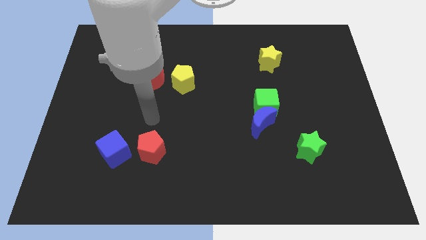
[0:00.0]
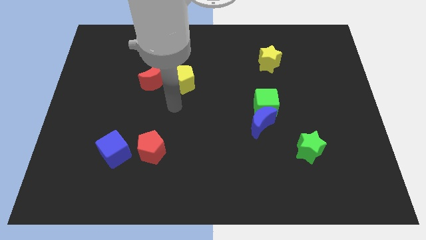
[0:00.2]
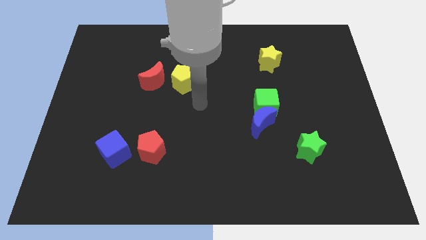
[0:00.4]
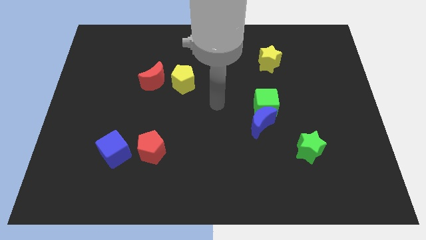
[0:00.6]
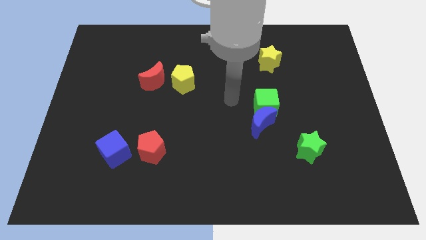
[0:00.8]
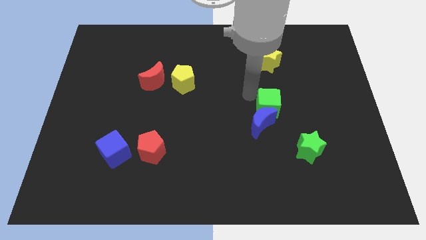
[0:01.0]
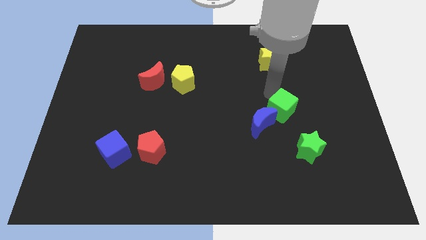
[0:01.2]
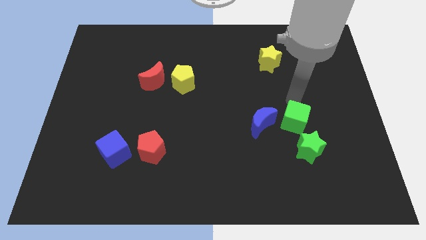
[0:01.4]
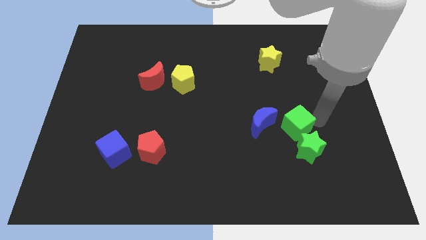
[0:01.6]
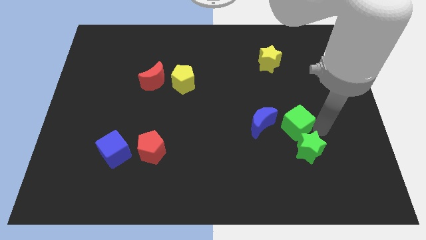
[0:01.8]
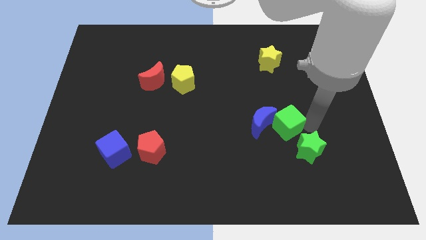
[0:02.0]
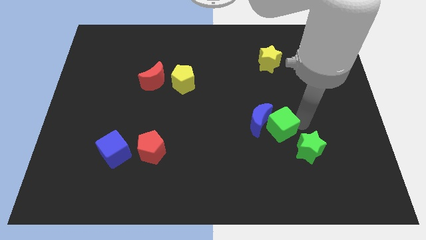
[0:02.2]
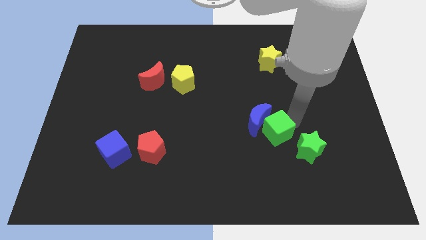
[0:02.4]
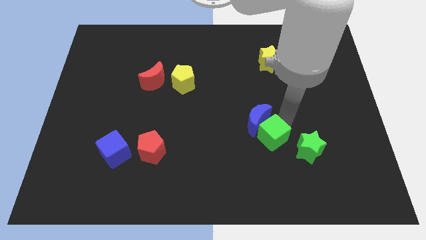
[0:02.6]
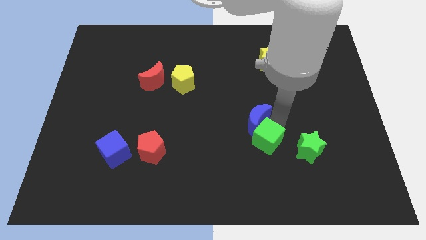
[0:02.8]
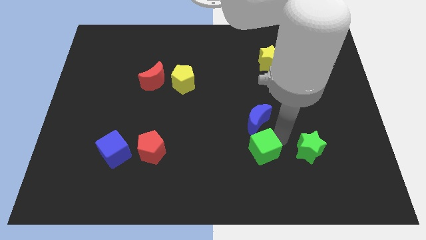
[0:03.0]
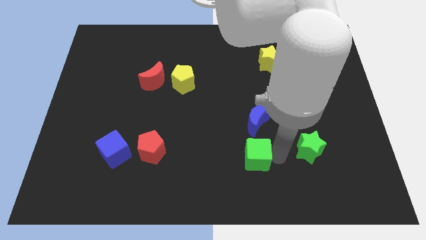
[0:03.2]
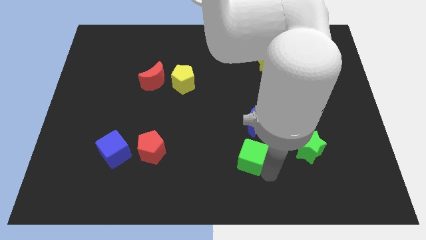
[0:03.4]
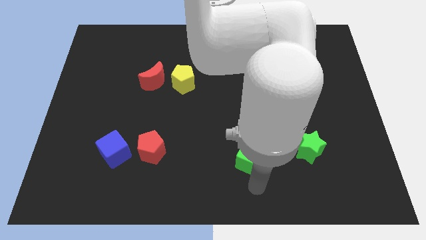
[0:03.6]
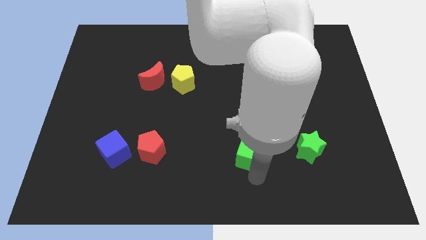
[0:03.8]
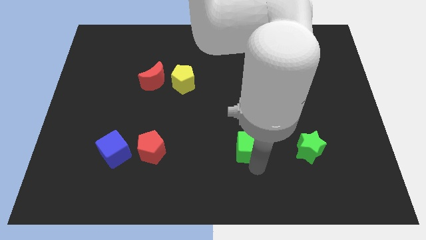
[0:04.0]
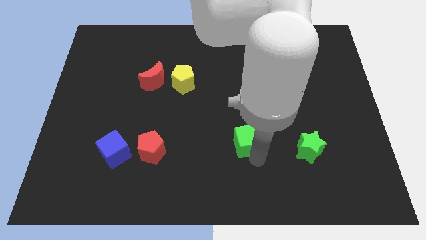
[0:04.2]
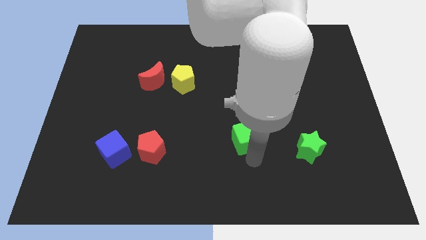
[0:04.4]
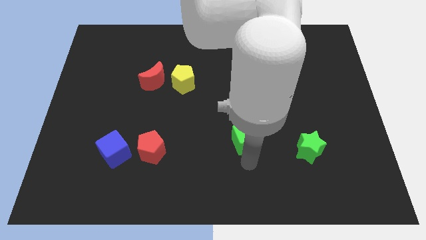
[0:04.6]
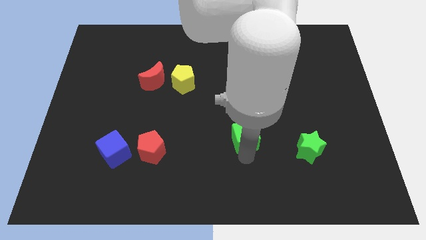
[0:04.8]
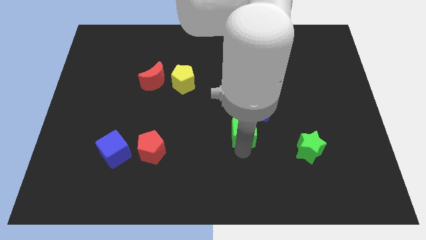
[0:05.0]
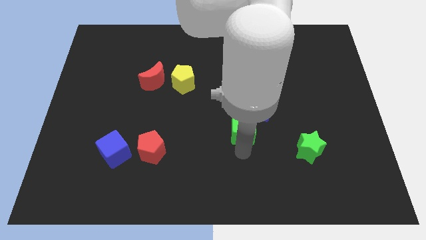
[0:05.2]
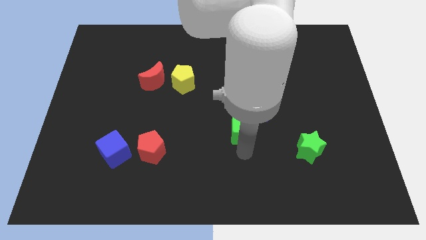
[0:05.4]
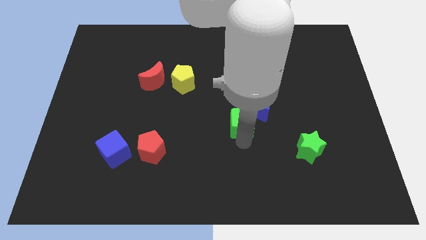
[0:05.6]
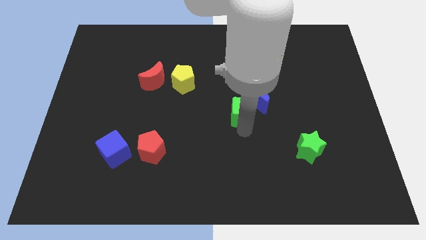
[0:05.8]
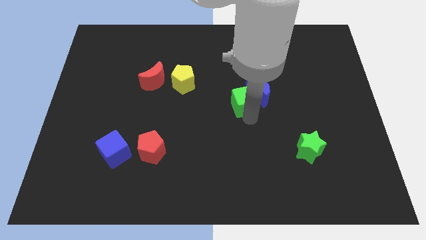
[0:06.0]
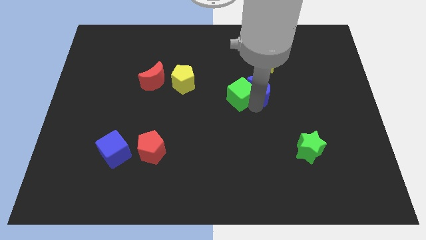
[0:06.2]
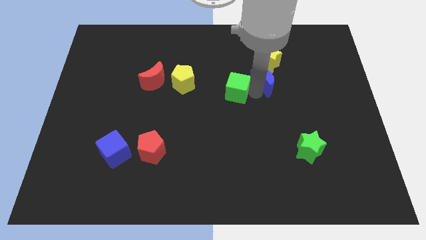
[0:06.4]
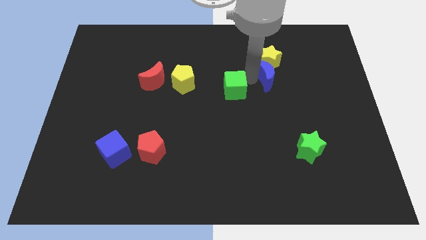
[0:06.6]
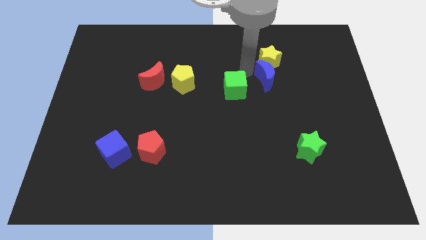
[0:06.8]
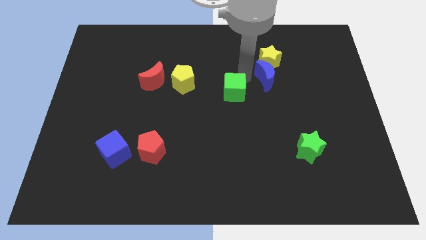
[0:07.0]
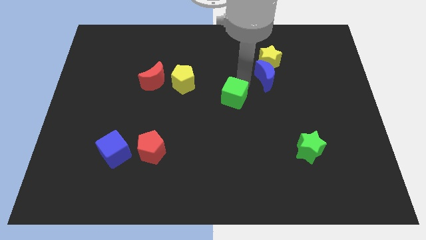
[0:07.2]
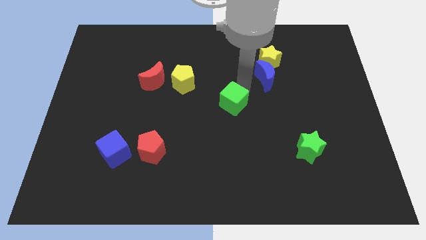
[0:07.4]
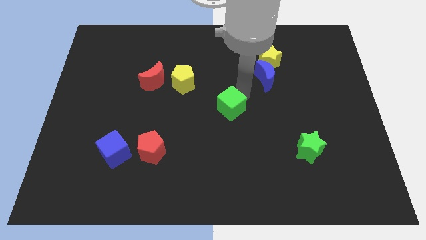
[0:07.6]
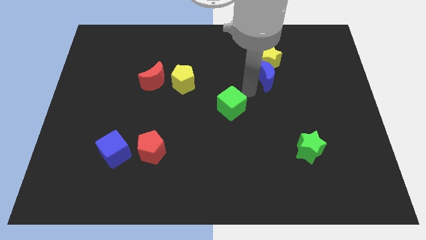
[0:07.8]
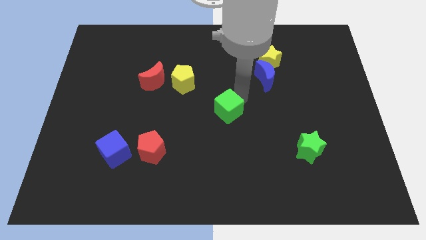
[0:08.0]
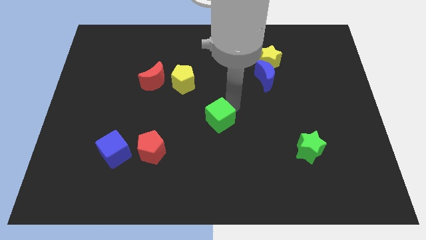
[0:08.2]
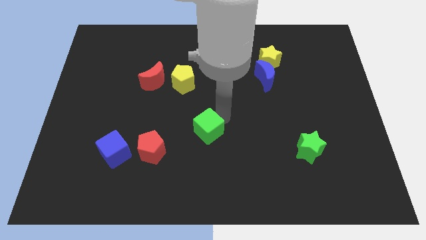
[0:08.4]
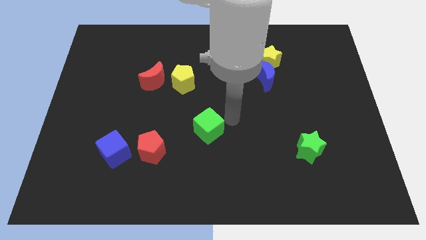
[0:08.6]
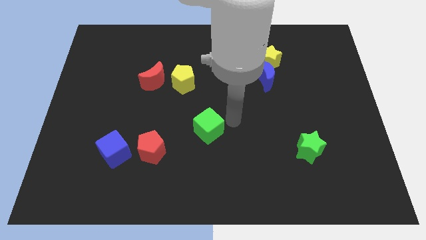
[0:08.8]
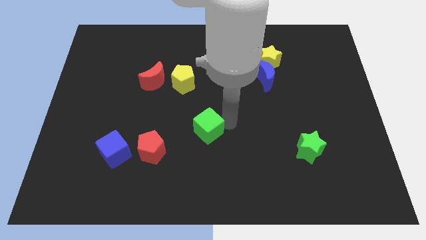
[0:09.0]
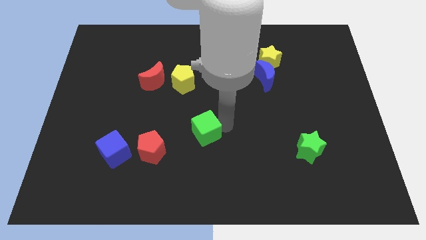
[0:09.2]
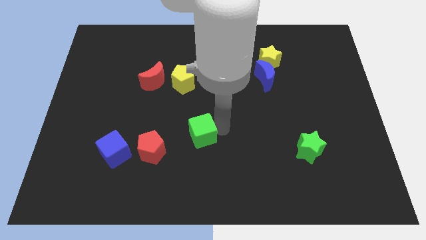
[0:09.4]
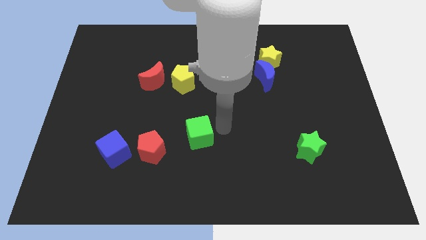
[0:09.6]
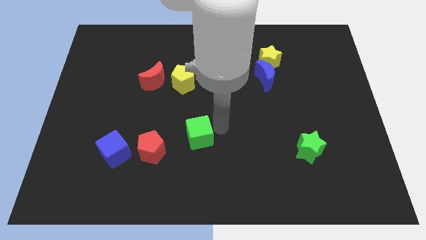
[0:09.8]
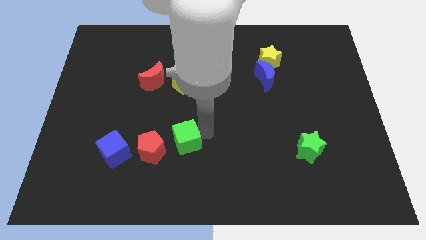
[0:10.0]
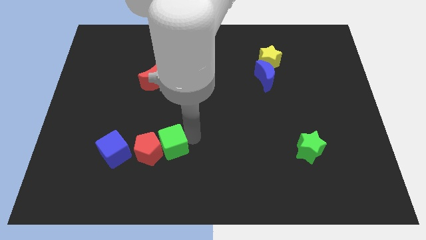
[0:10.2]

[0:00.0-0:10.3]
put the green cube next to the red pentagon

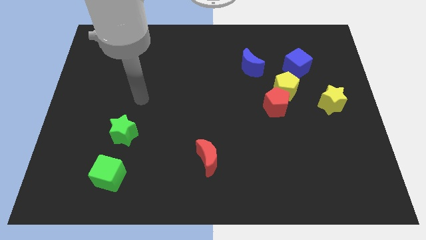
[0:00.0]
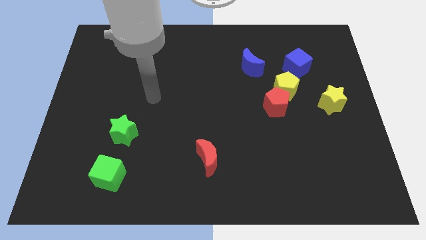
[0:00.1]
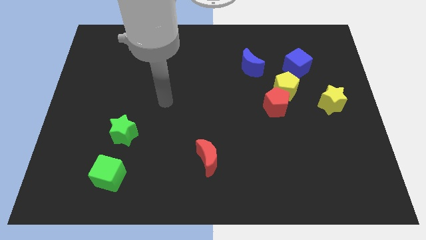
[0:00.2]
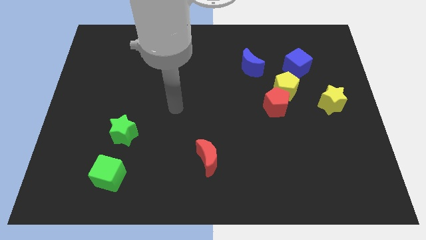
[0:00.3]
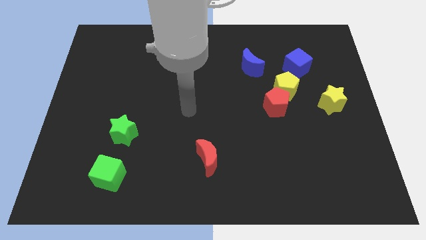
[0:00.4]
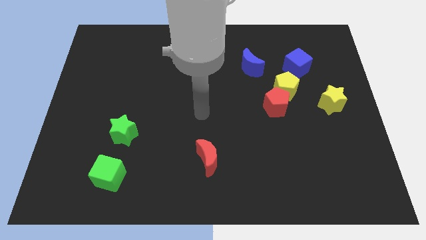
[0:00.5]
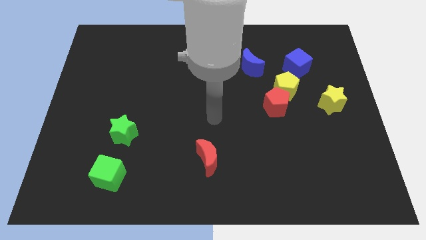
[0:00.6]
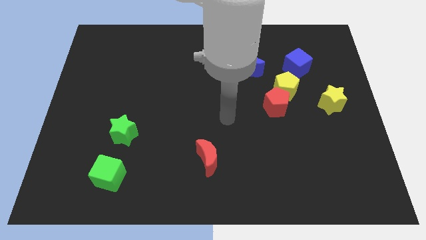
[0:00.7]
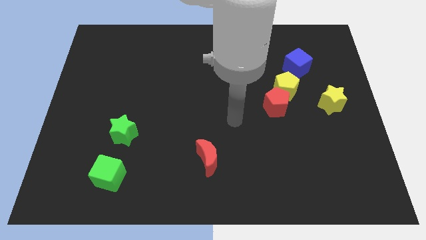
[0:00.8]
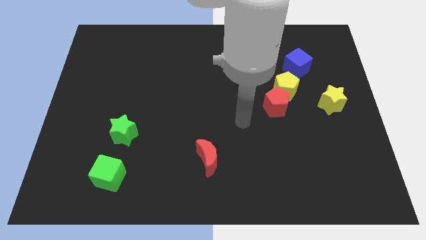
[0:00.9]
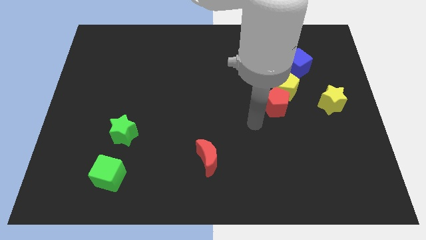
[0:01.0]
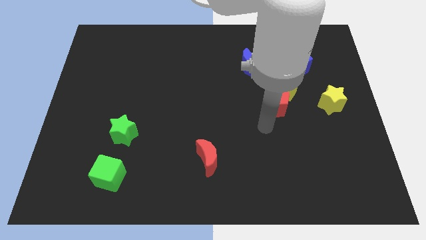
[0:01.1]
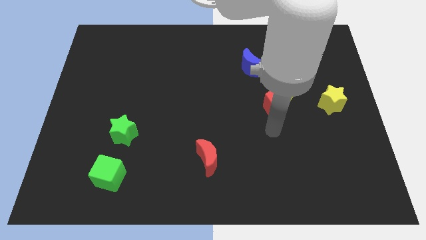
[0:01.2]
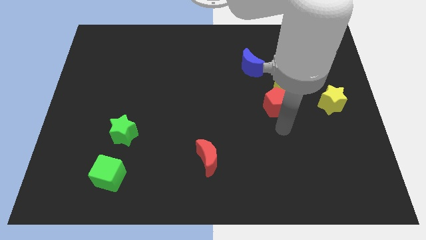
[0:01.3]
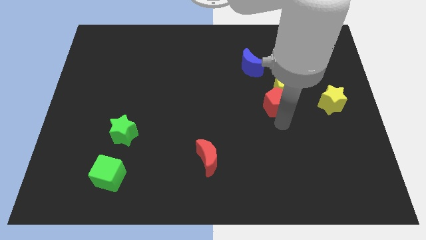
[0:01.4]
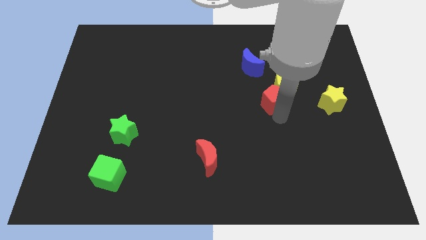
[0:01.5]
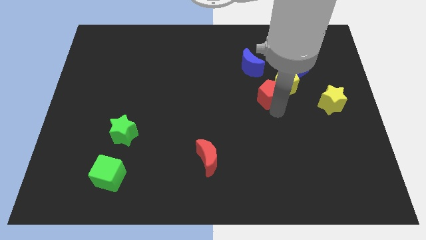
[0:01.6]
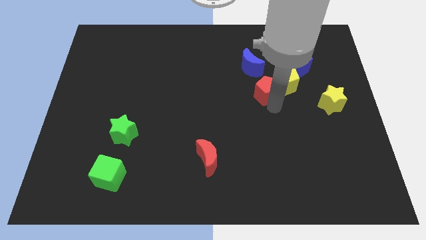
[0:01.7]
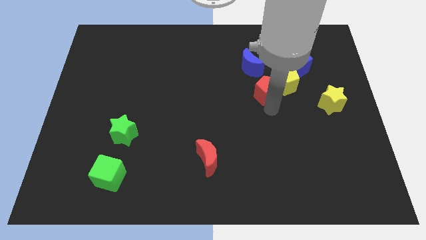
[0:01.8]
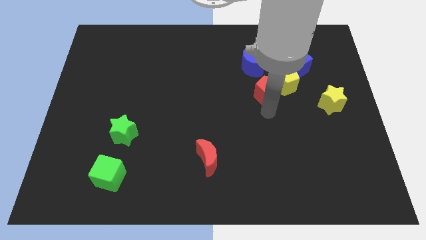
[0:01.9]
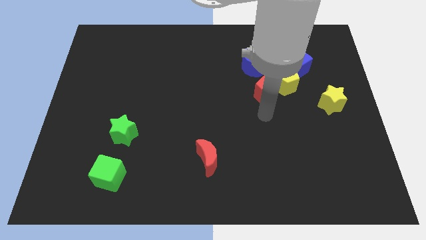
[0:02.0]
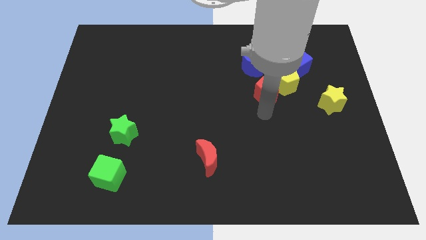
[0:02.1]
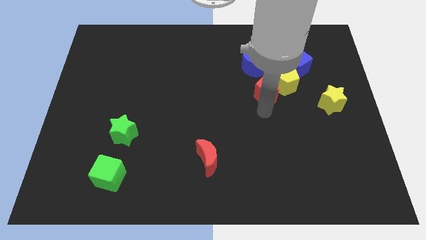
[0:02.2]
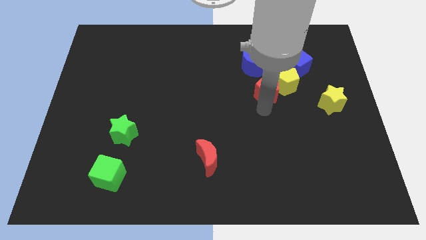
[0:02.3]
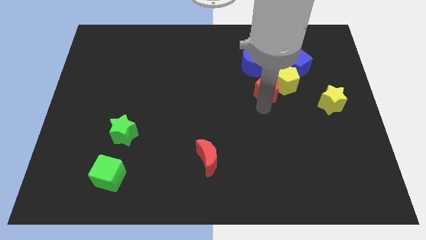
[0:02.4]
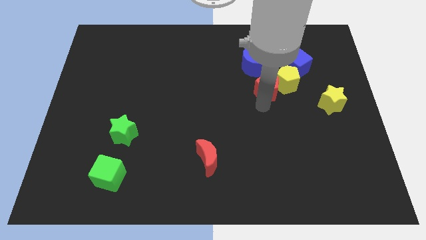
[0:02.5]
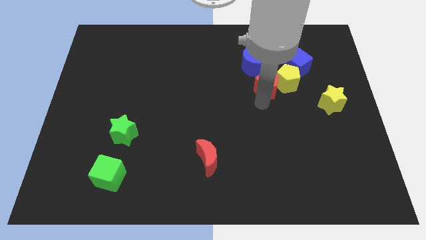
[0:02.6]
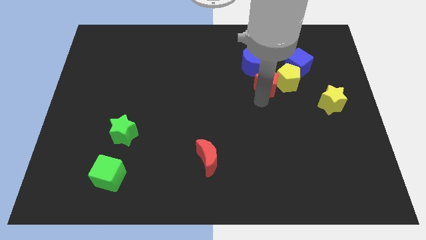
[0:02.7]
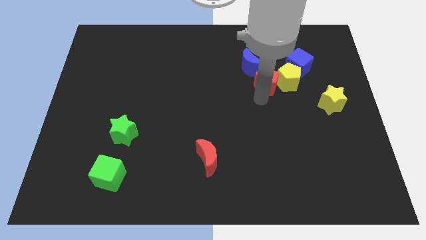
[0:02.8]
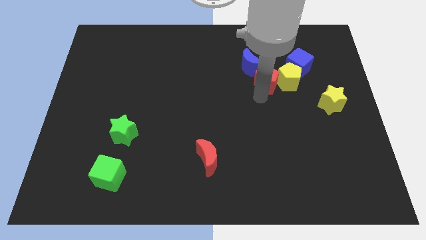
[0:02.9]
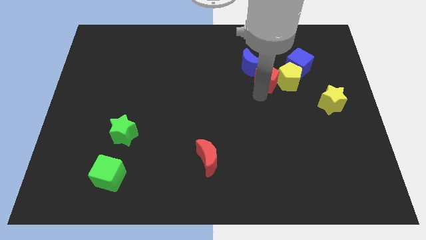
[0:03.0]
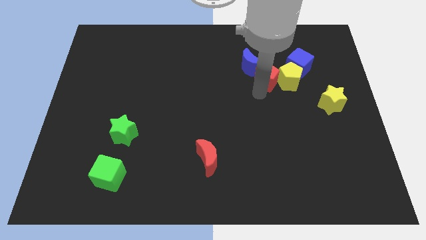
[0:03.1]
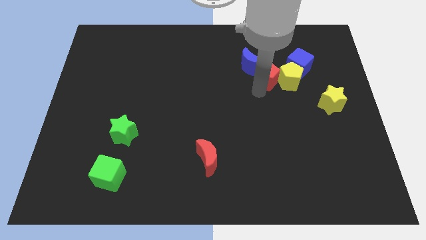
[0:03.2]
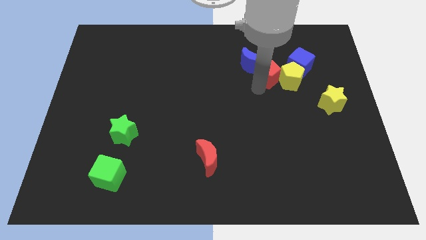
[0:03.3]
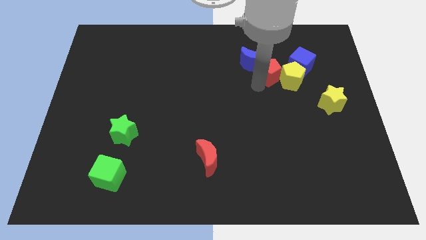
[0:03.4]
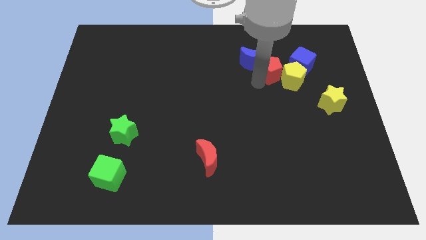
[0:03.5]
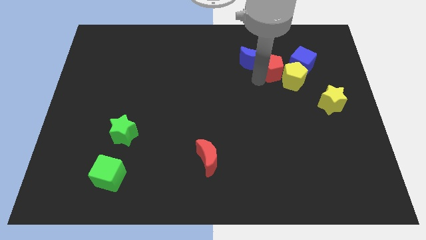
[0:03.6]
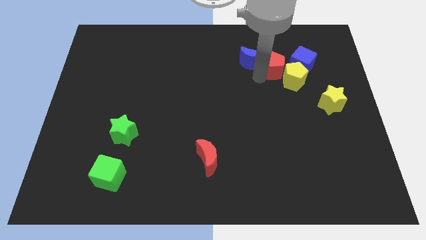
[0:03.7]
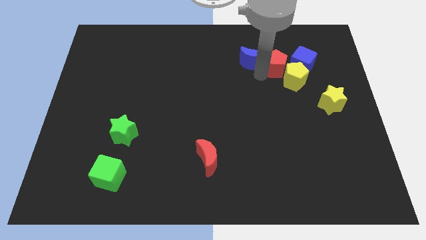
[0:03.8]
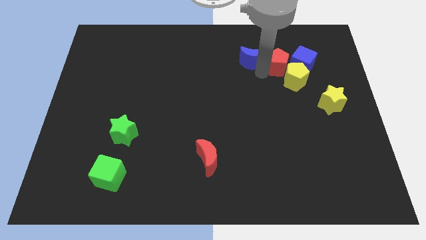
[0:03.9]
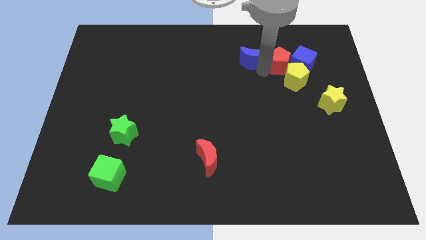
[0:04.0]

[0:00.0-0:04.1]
slide the red pentagon to the blue cube
